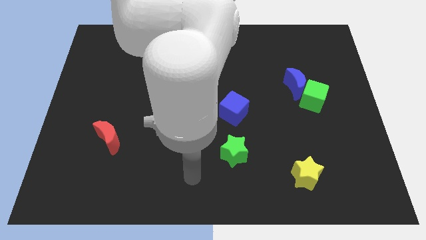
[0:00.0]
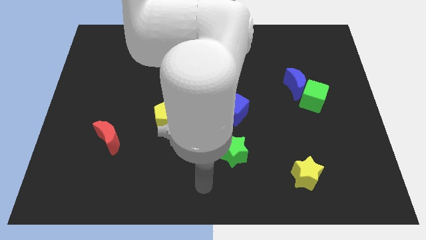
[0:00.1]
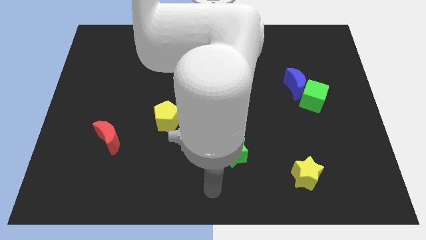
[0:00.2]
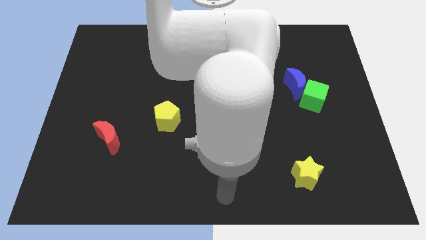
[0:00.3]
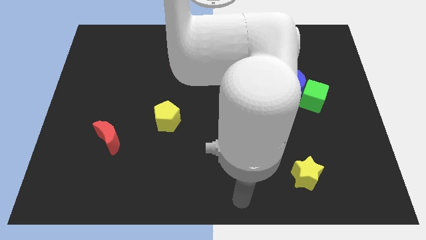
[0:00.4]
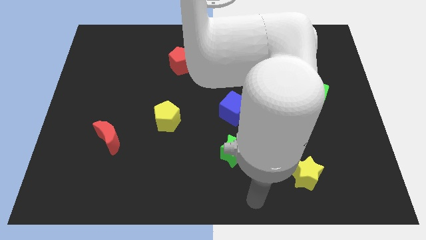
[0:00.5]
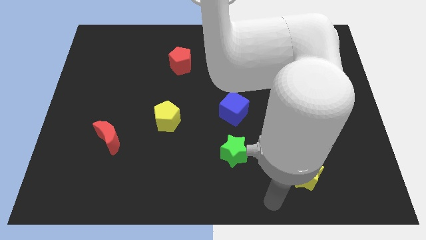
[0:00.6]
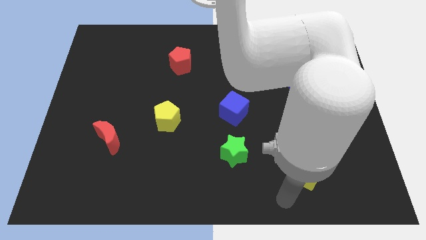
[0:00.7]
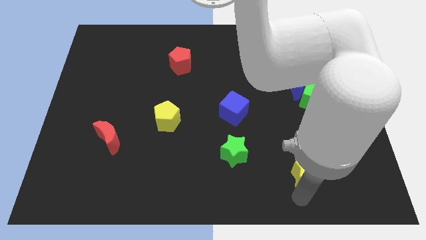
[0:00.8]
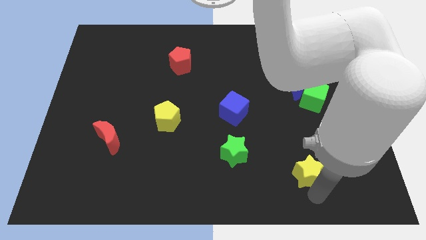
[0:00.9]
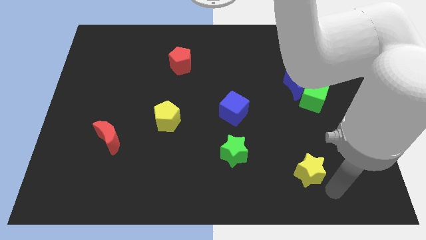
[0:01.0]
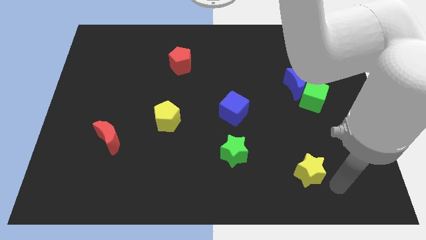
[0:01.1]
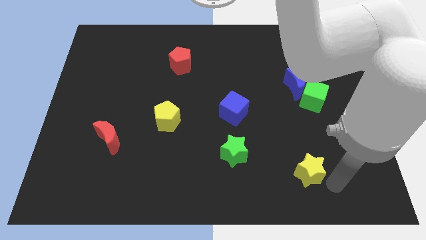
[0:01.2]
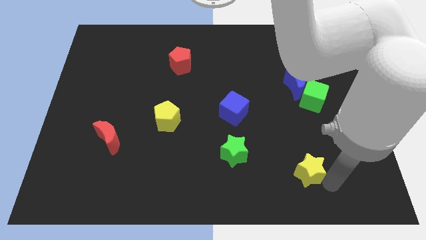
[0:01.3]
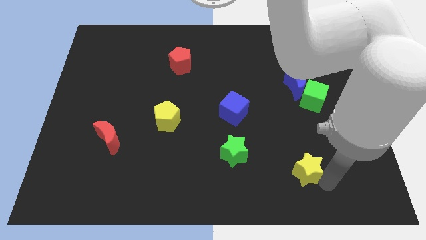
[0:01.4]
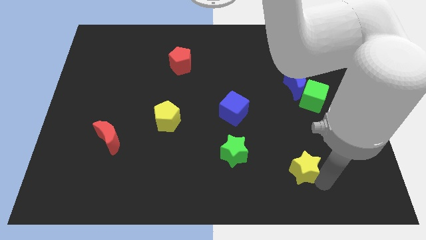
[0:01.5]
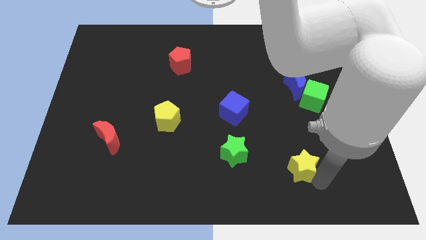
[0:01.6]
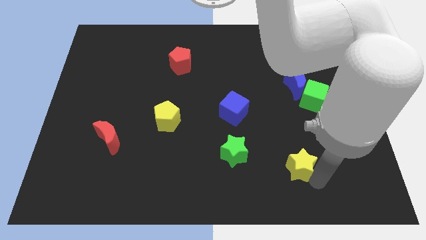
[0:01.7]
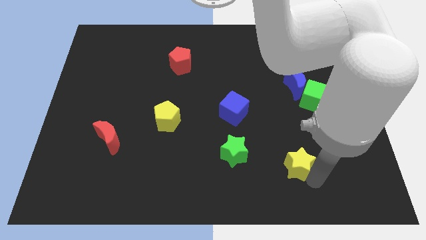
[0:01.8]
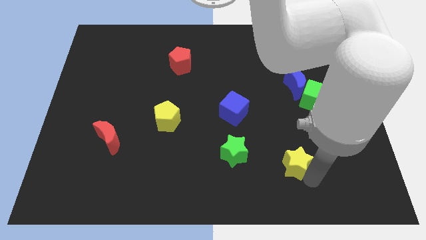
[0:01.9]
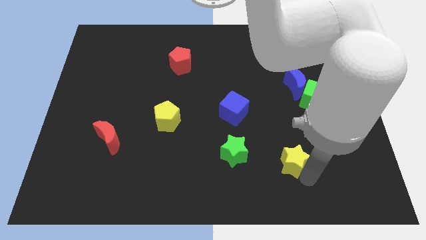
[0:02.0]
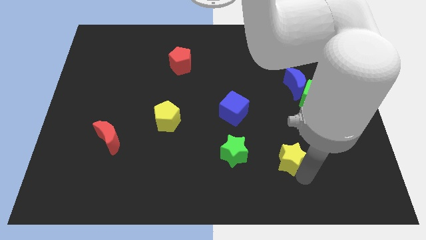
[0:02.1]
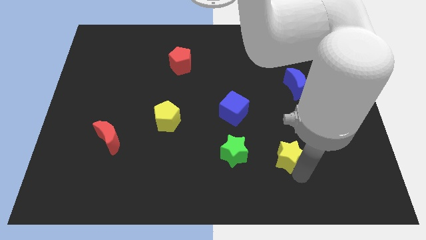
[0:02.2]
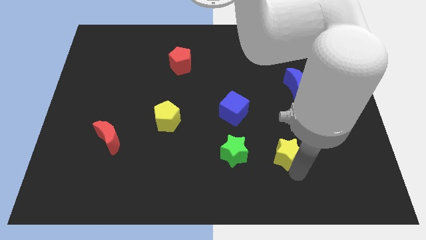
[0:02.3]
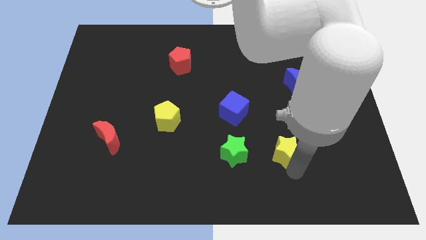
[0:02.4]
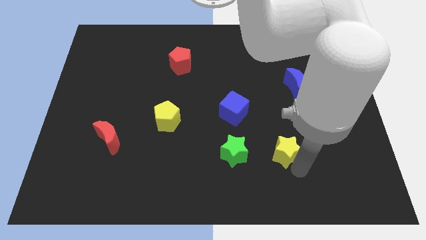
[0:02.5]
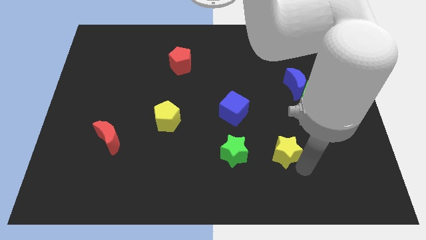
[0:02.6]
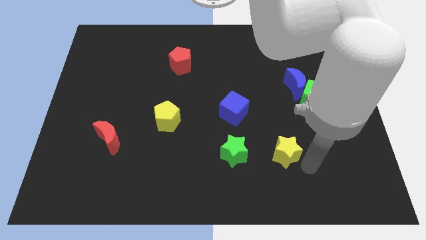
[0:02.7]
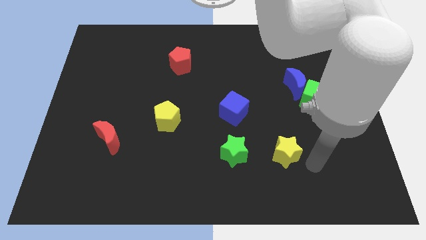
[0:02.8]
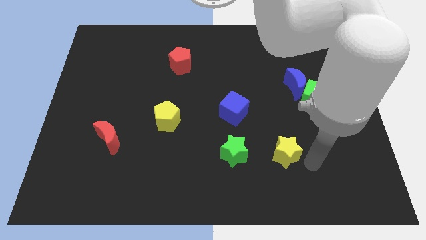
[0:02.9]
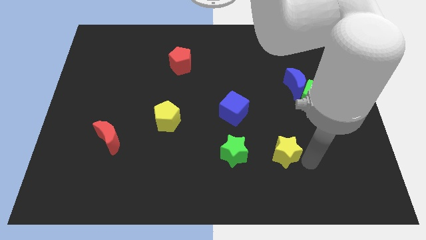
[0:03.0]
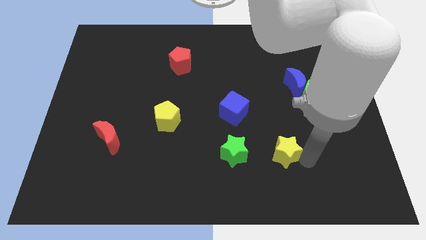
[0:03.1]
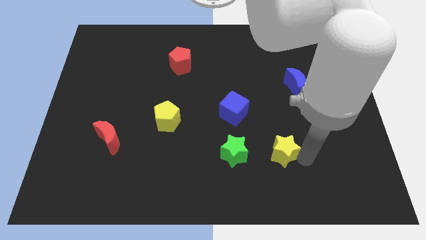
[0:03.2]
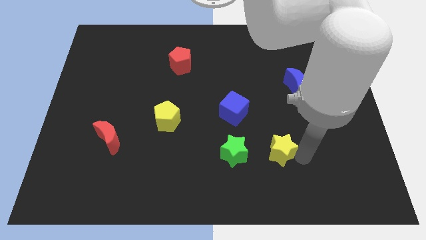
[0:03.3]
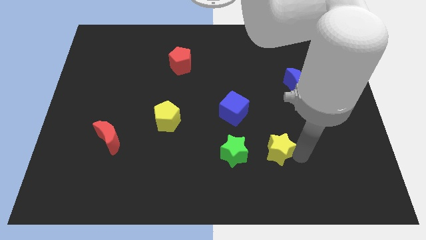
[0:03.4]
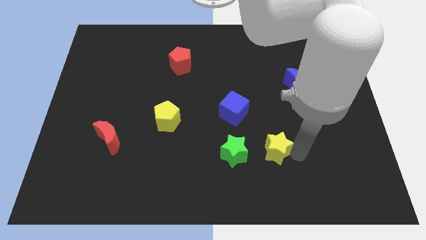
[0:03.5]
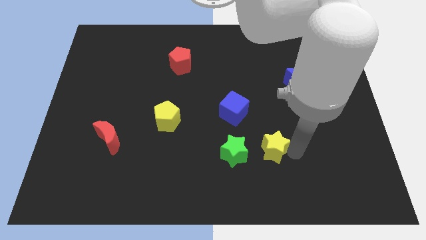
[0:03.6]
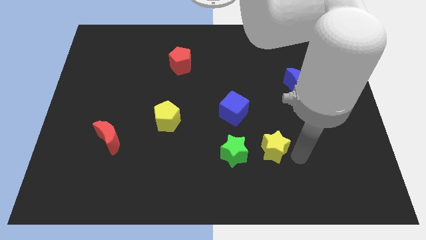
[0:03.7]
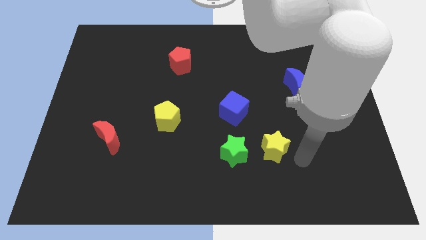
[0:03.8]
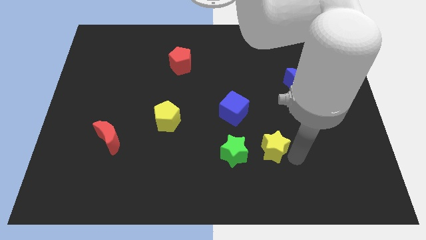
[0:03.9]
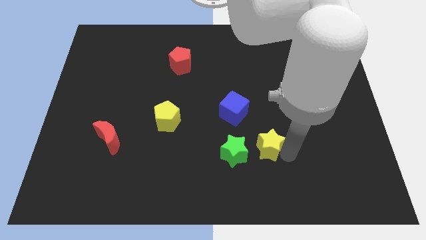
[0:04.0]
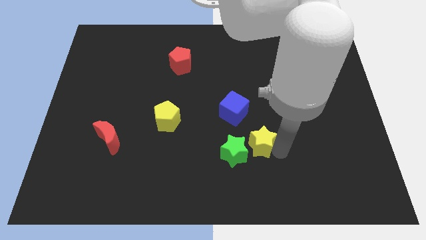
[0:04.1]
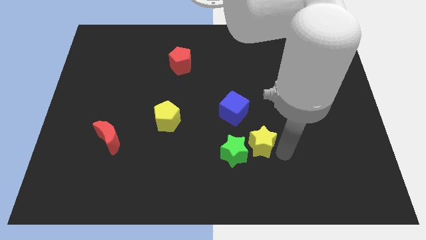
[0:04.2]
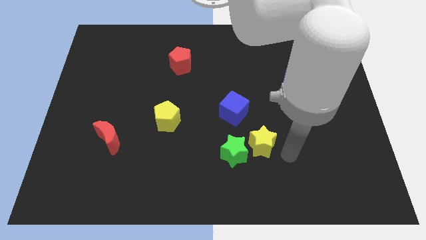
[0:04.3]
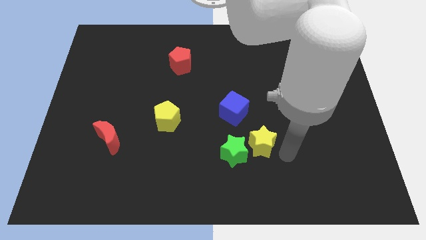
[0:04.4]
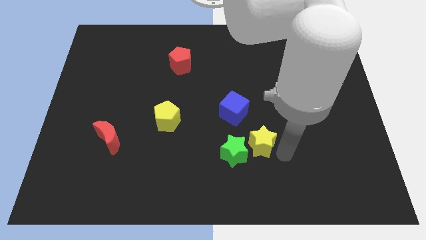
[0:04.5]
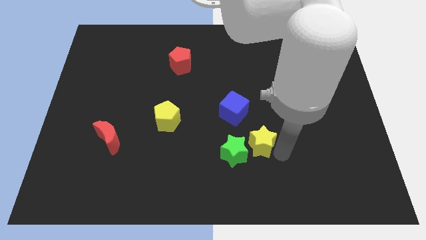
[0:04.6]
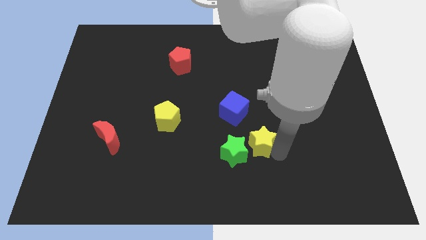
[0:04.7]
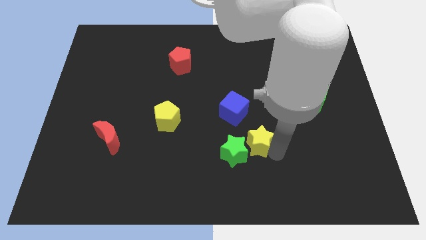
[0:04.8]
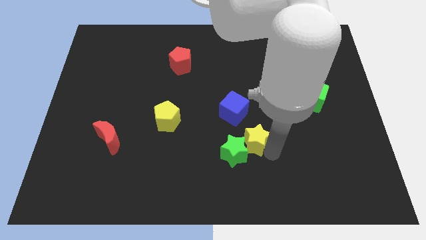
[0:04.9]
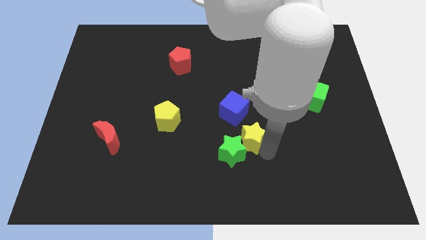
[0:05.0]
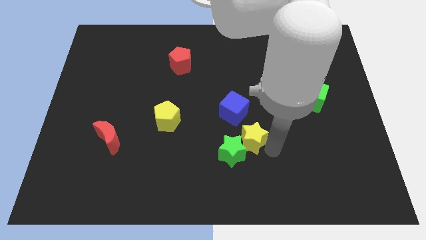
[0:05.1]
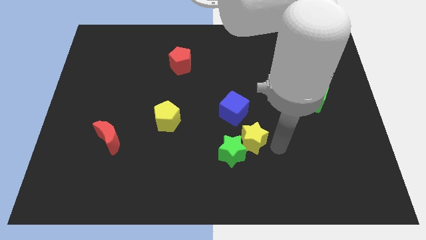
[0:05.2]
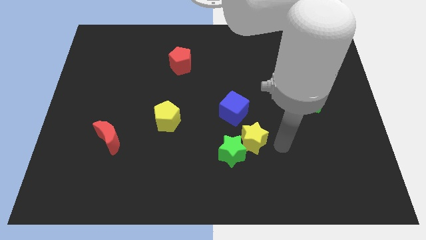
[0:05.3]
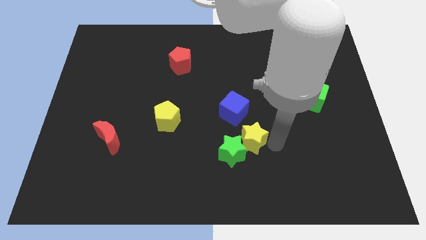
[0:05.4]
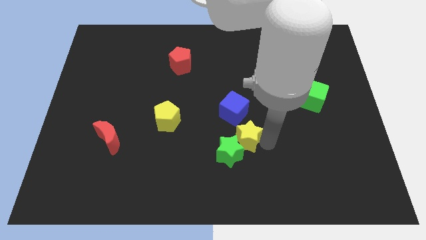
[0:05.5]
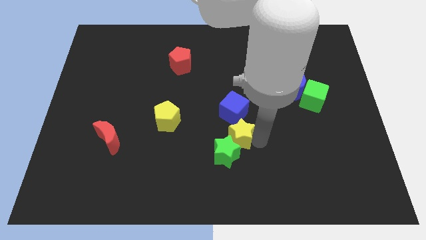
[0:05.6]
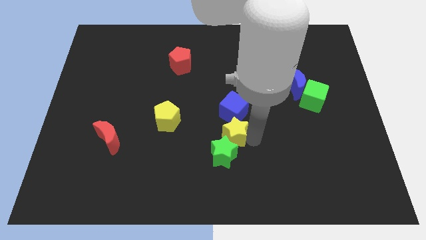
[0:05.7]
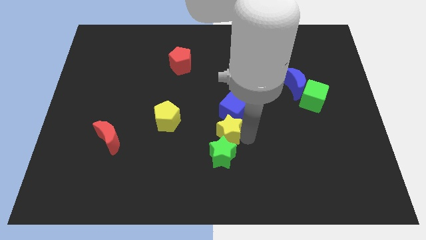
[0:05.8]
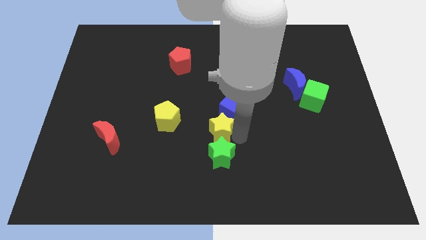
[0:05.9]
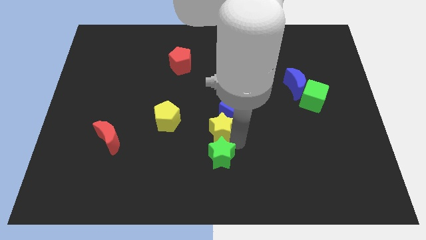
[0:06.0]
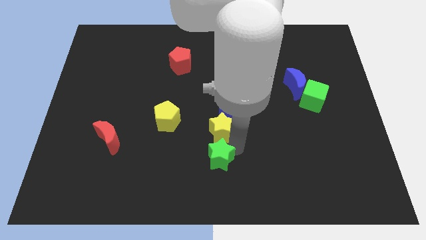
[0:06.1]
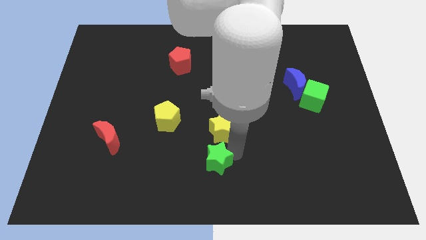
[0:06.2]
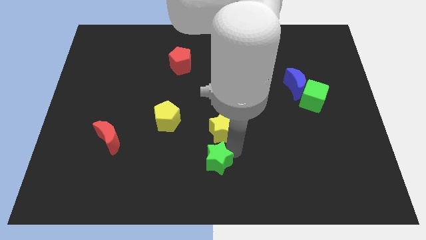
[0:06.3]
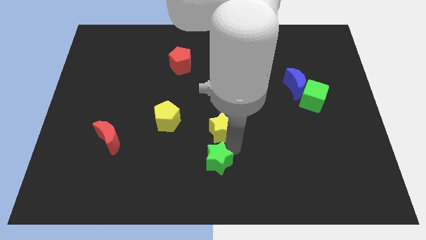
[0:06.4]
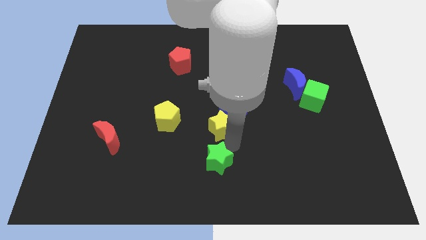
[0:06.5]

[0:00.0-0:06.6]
slide the yellow star upwards and to the left

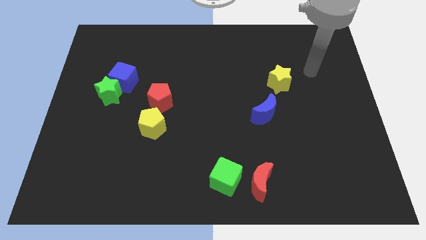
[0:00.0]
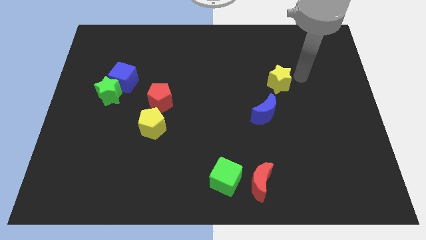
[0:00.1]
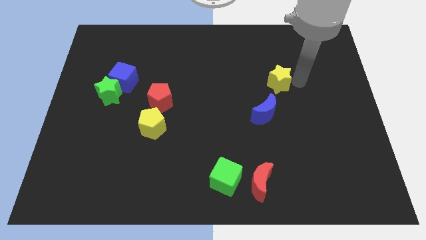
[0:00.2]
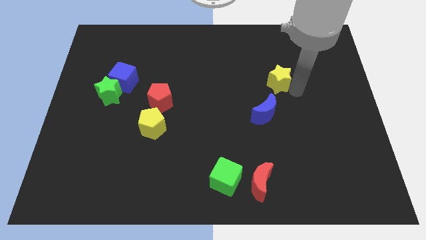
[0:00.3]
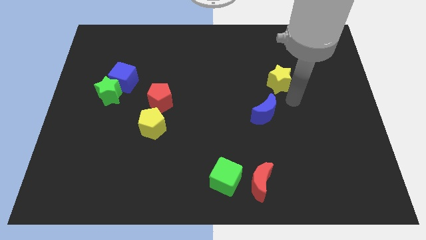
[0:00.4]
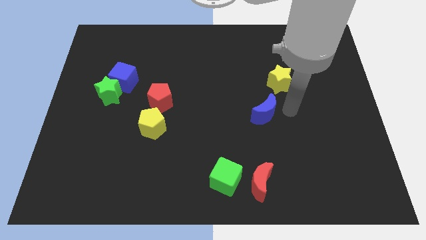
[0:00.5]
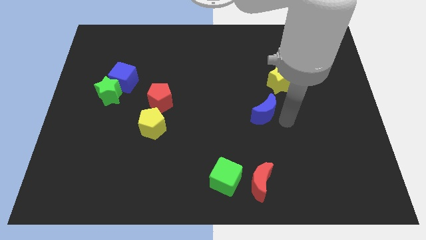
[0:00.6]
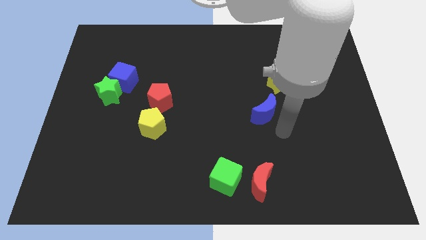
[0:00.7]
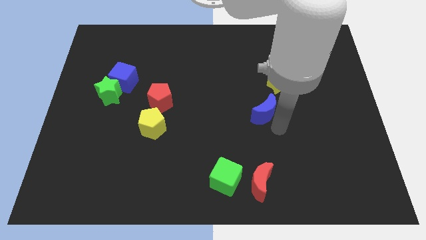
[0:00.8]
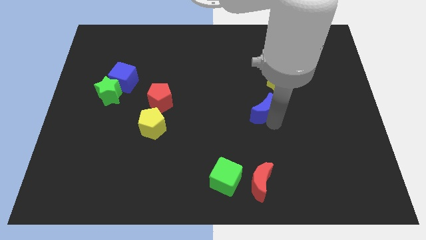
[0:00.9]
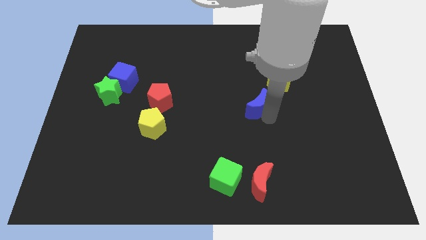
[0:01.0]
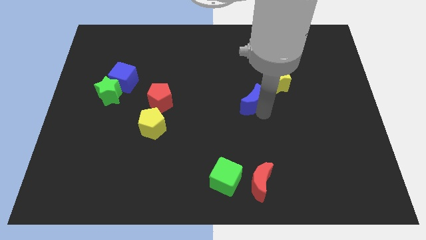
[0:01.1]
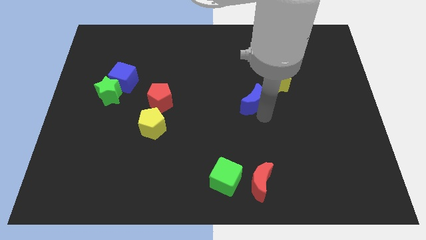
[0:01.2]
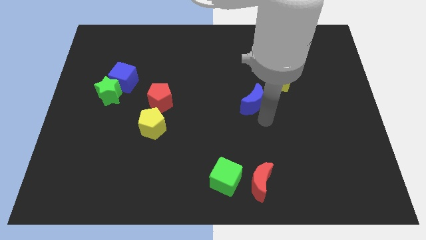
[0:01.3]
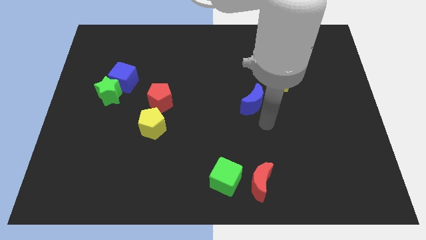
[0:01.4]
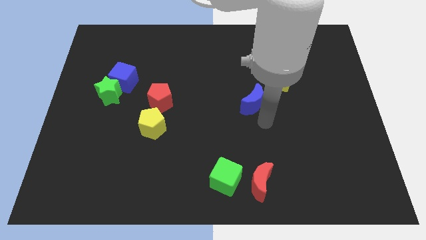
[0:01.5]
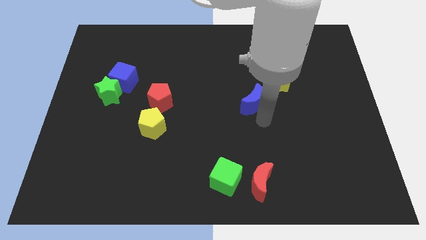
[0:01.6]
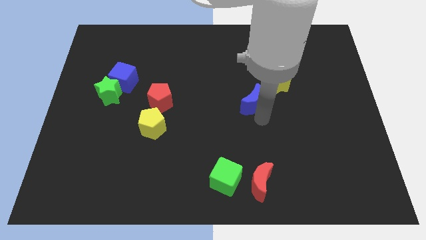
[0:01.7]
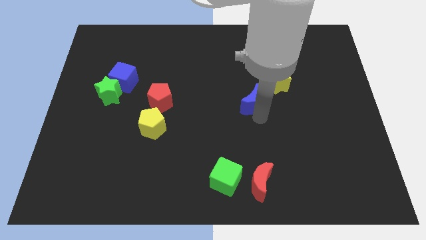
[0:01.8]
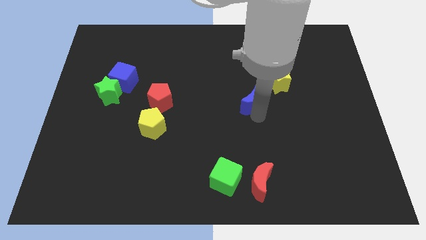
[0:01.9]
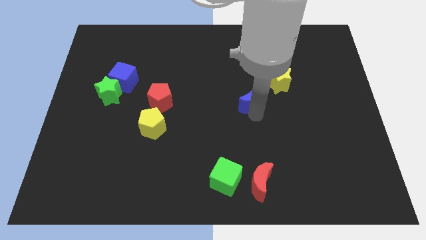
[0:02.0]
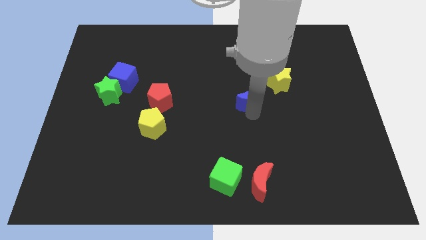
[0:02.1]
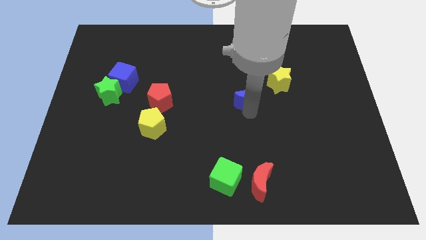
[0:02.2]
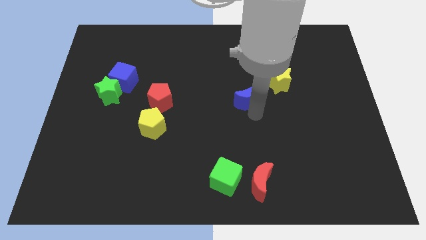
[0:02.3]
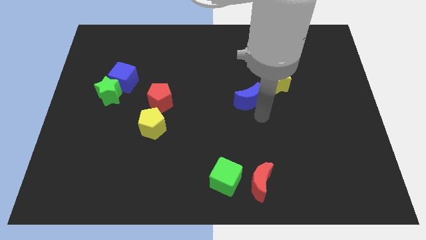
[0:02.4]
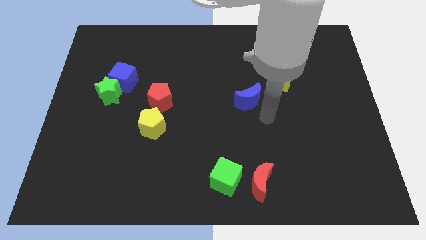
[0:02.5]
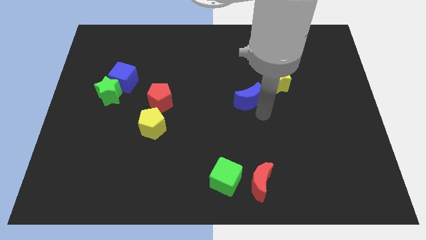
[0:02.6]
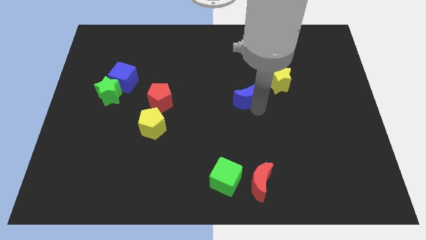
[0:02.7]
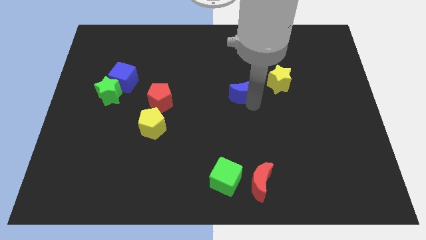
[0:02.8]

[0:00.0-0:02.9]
slightly move the blue moon upwards and then to the left
